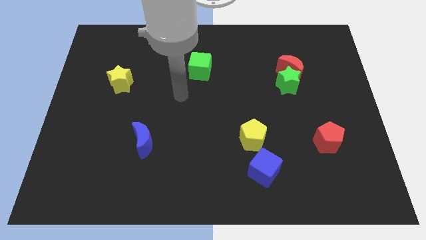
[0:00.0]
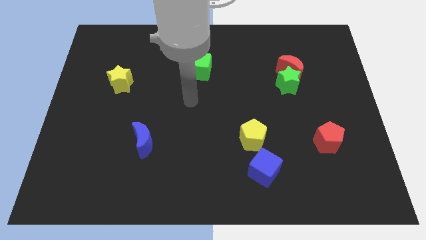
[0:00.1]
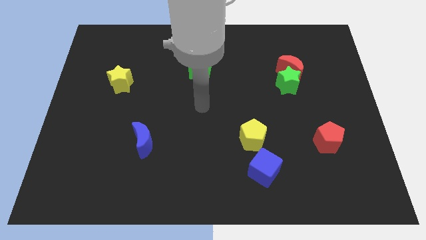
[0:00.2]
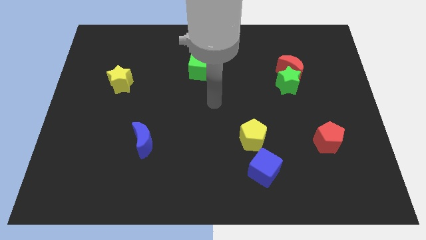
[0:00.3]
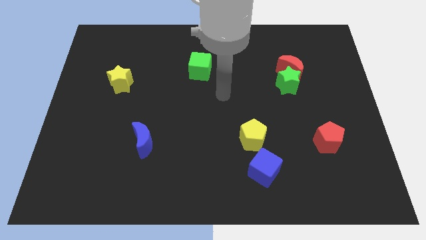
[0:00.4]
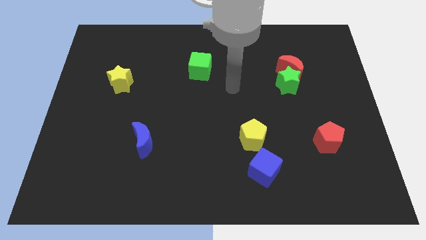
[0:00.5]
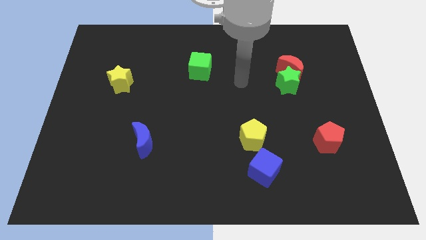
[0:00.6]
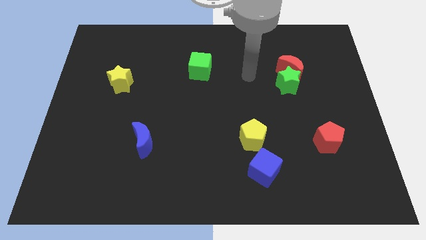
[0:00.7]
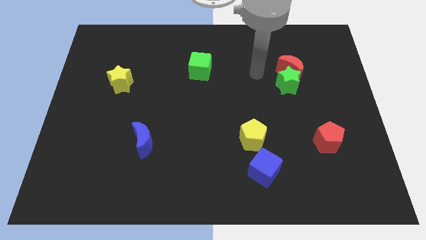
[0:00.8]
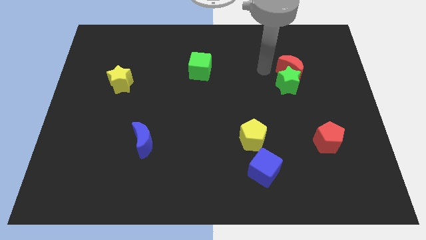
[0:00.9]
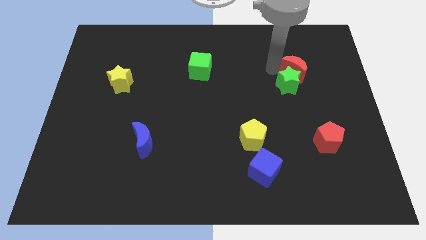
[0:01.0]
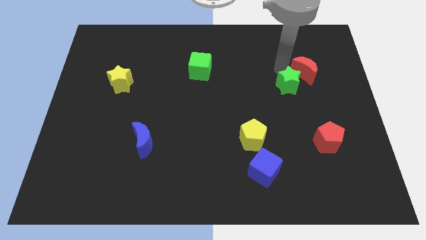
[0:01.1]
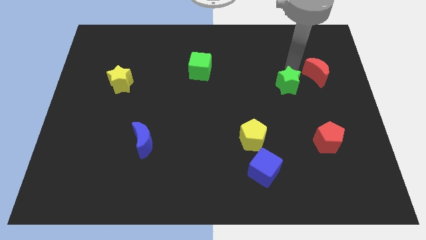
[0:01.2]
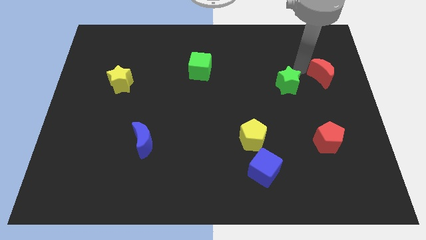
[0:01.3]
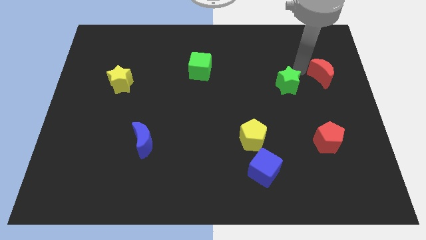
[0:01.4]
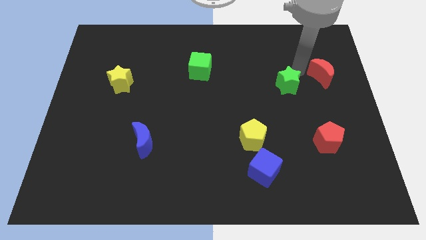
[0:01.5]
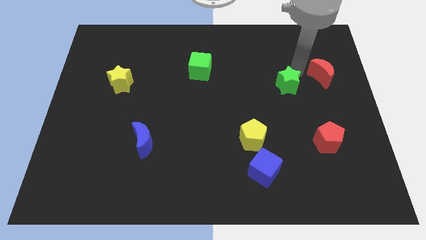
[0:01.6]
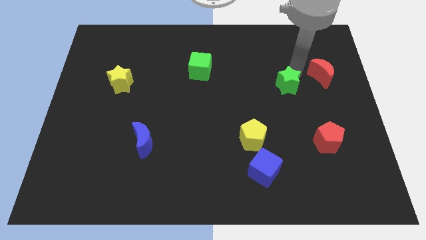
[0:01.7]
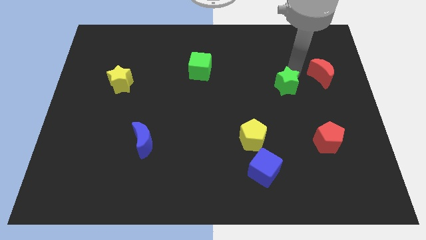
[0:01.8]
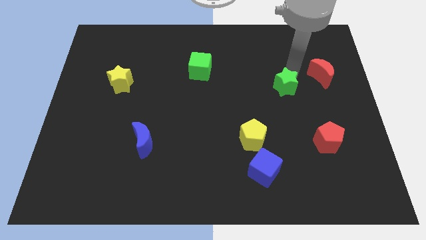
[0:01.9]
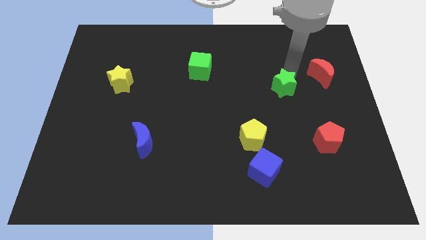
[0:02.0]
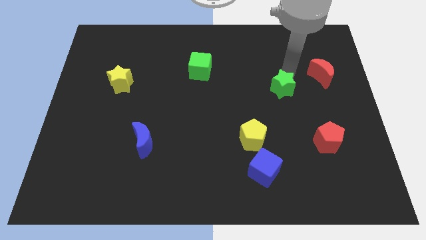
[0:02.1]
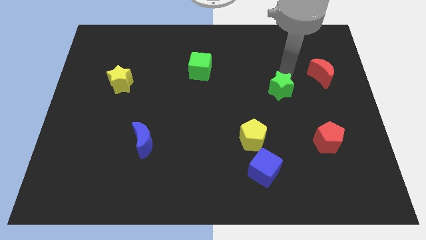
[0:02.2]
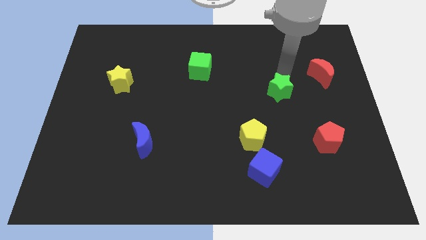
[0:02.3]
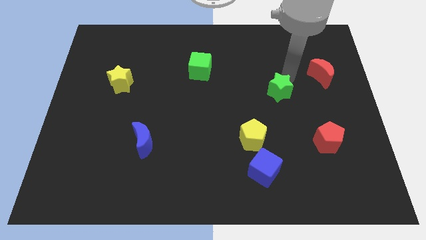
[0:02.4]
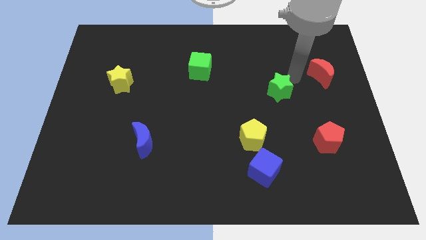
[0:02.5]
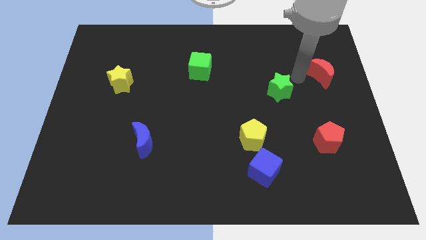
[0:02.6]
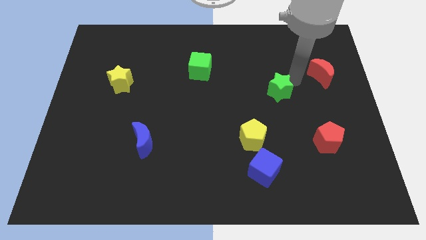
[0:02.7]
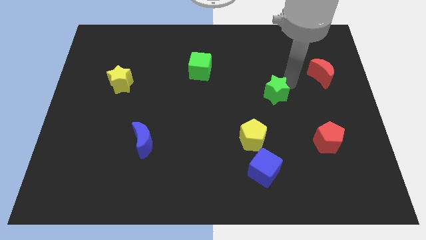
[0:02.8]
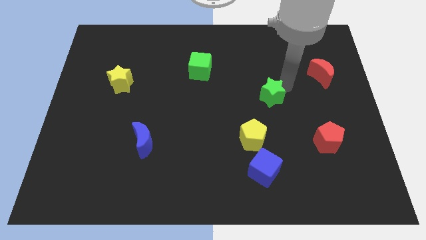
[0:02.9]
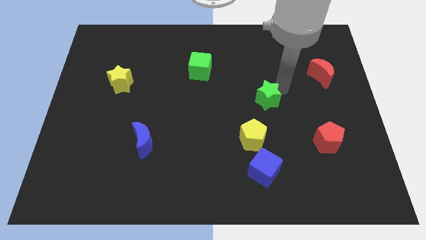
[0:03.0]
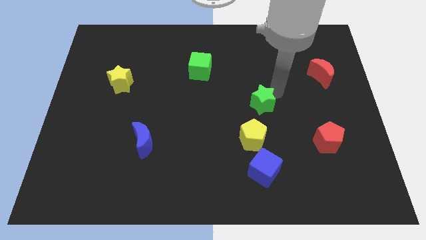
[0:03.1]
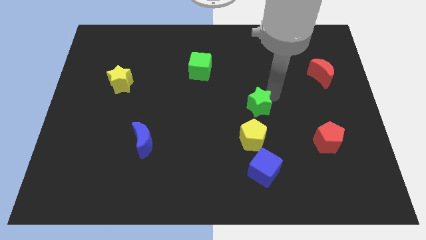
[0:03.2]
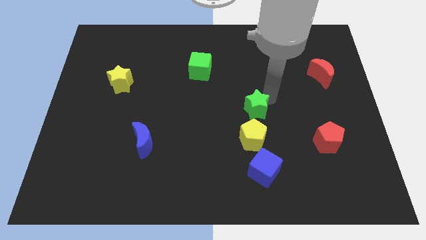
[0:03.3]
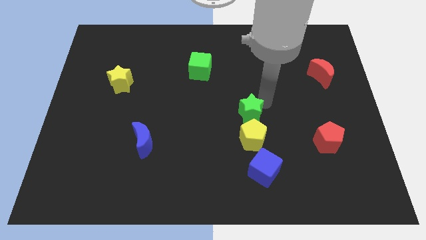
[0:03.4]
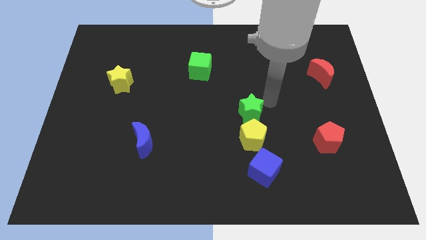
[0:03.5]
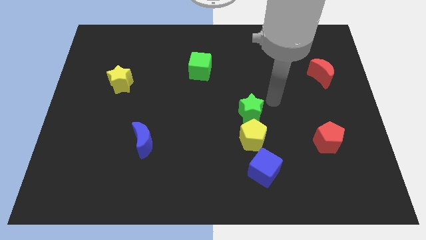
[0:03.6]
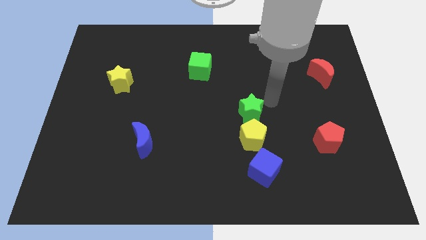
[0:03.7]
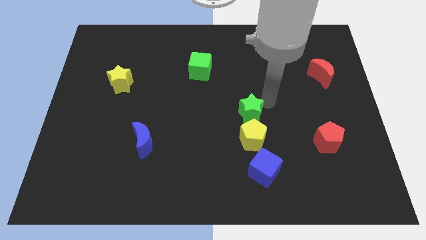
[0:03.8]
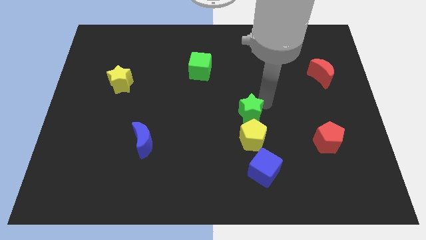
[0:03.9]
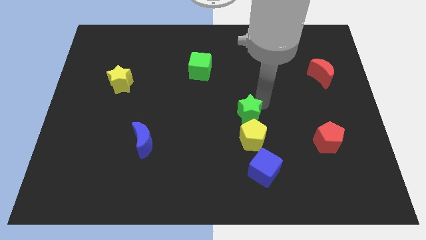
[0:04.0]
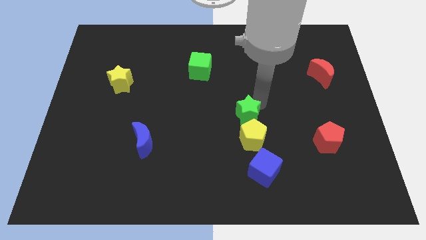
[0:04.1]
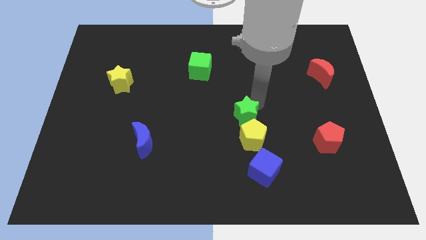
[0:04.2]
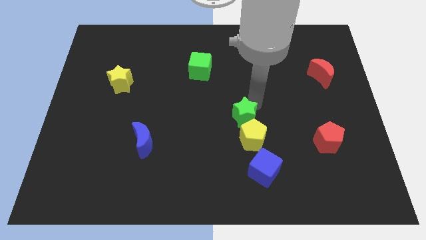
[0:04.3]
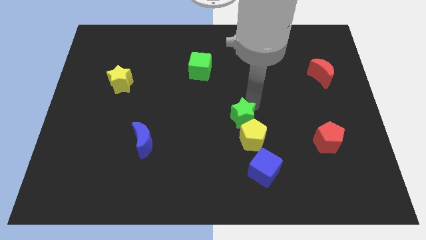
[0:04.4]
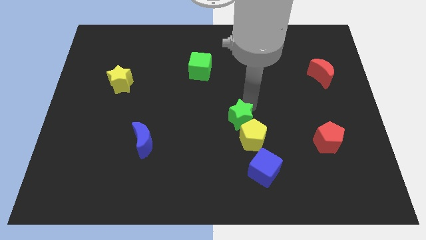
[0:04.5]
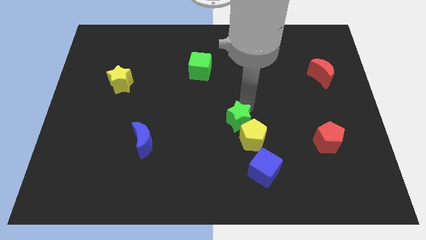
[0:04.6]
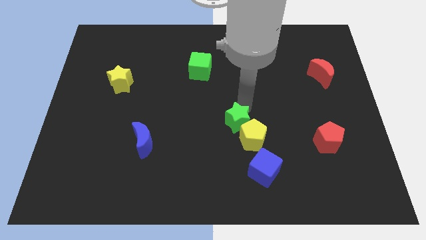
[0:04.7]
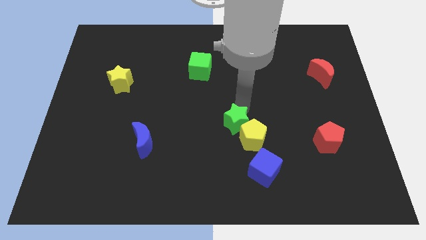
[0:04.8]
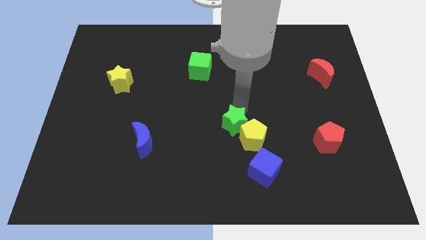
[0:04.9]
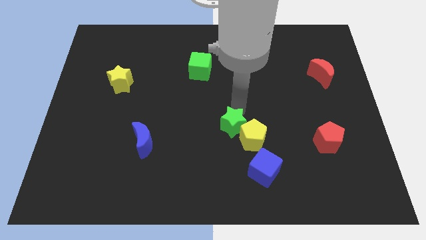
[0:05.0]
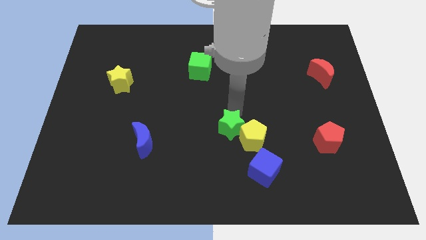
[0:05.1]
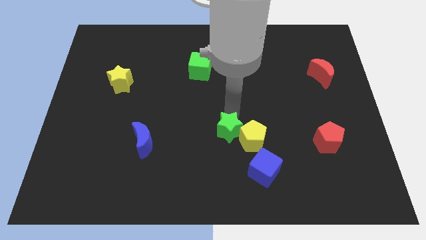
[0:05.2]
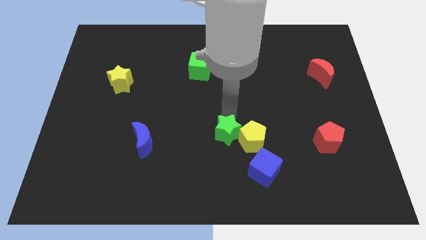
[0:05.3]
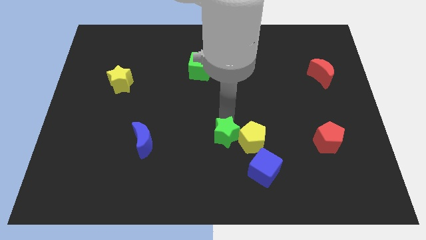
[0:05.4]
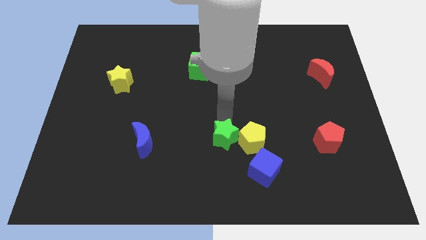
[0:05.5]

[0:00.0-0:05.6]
move the green star to the bottom left of the yellow pentagon

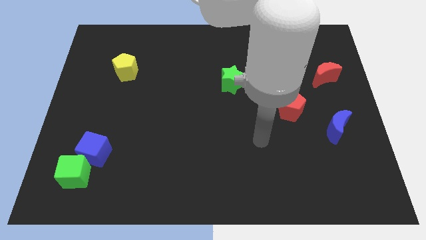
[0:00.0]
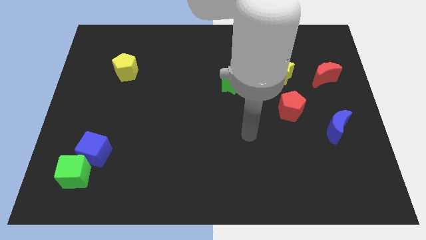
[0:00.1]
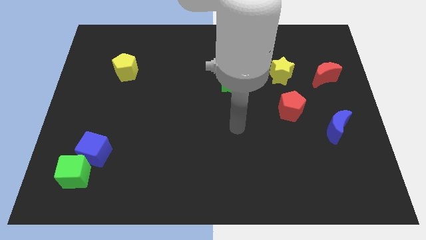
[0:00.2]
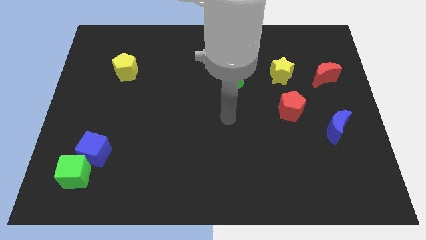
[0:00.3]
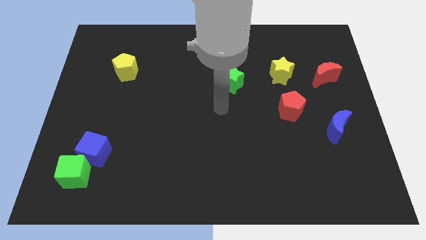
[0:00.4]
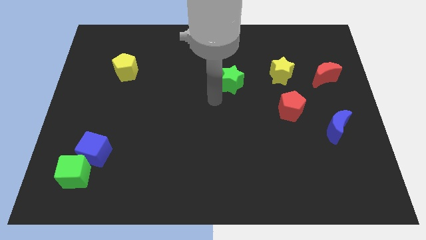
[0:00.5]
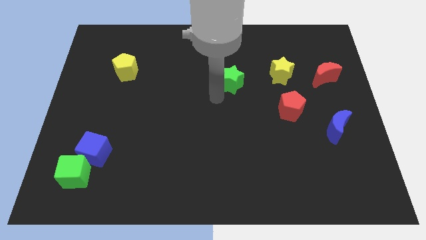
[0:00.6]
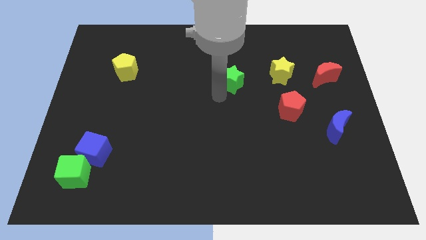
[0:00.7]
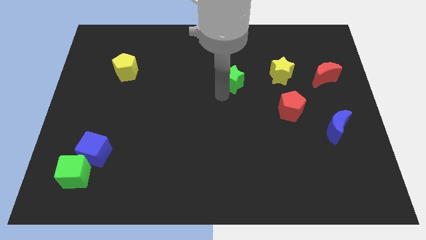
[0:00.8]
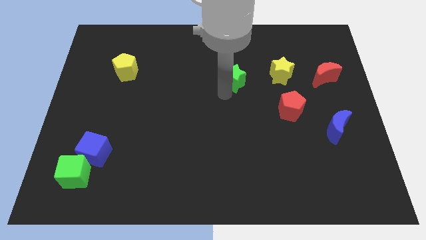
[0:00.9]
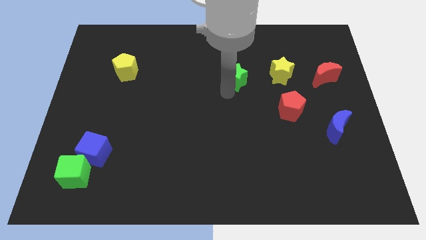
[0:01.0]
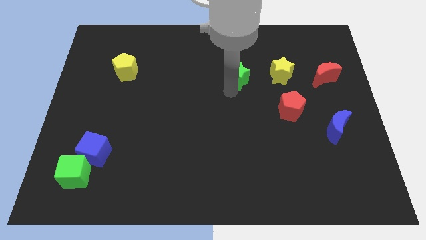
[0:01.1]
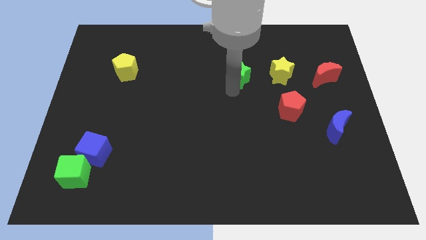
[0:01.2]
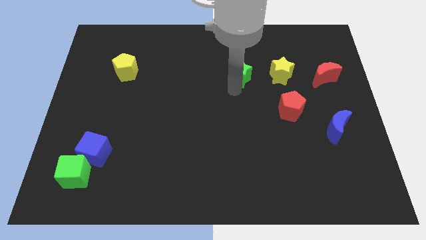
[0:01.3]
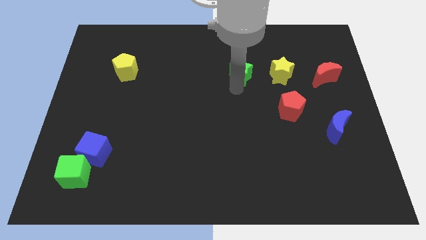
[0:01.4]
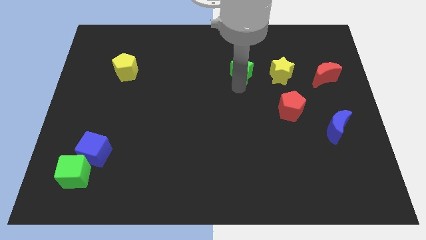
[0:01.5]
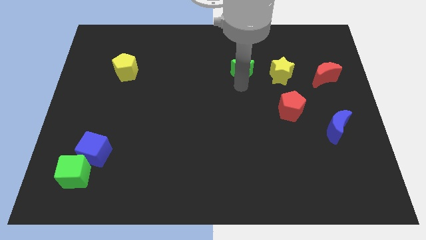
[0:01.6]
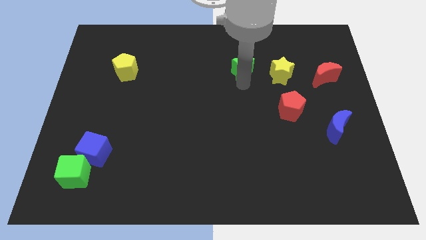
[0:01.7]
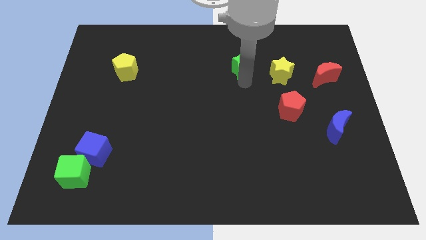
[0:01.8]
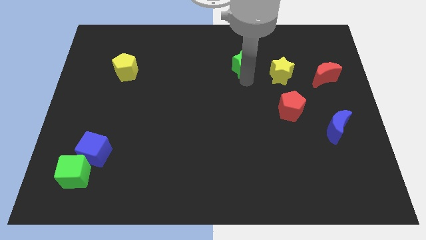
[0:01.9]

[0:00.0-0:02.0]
put the green star to the top left of the yellow star
